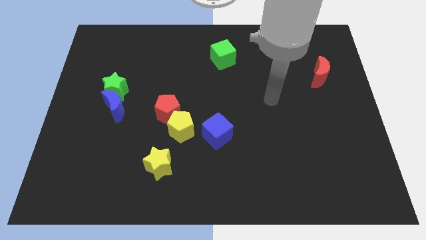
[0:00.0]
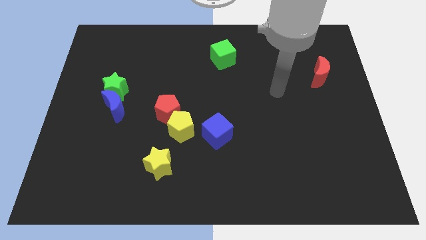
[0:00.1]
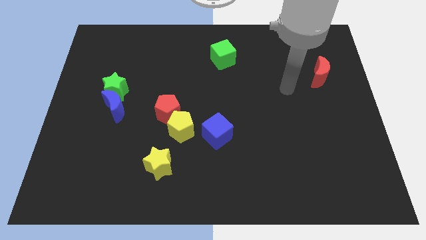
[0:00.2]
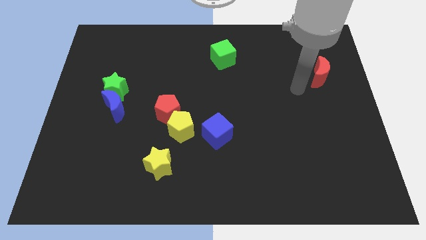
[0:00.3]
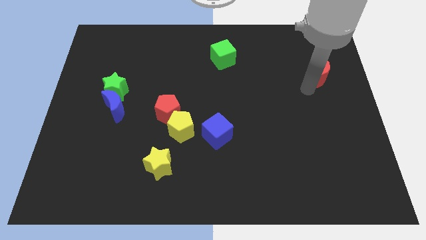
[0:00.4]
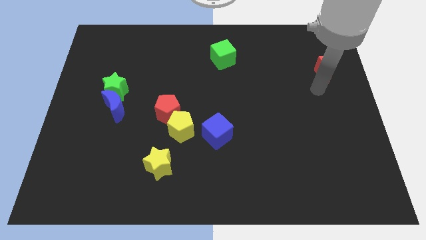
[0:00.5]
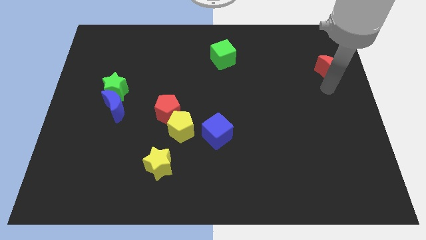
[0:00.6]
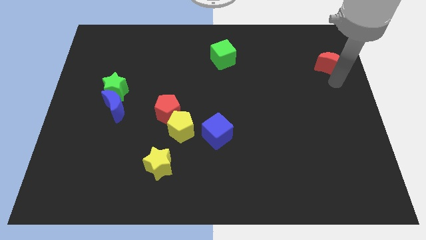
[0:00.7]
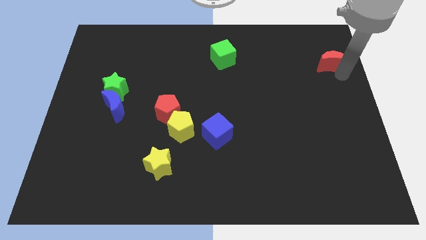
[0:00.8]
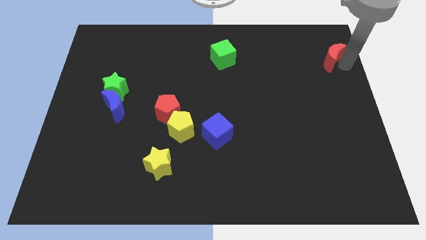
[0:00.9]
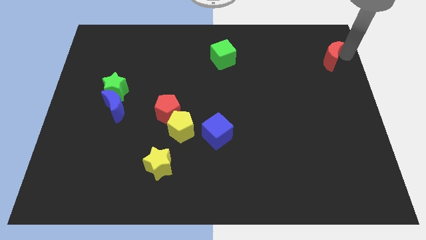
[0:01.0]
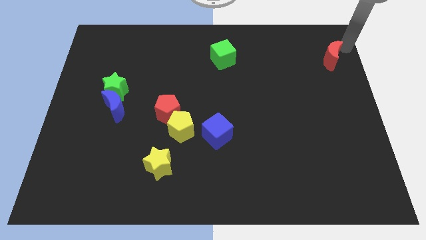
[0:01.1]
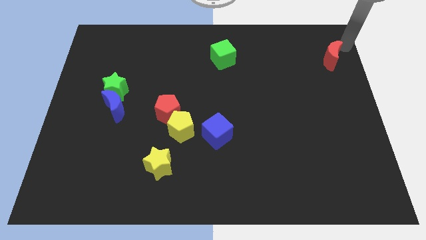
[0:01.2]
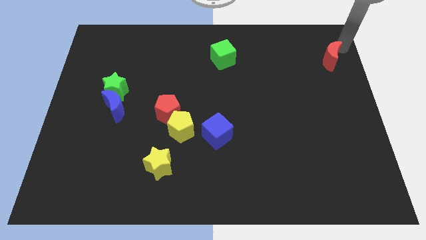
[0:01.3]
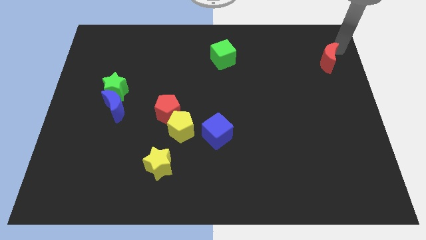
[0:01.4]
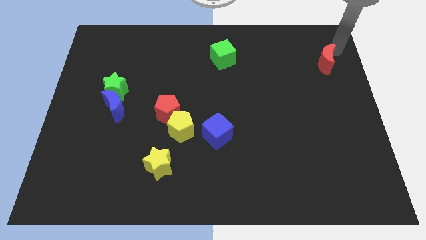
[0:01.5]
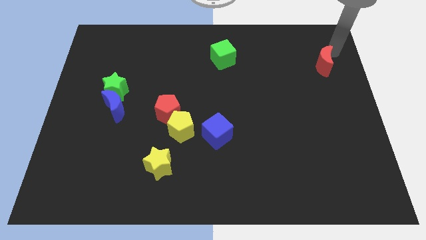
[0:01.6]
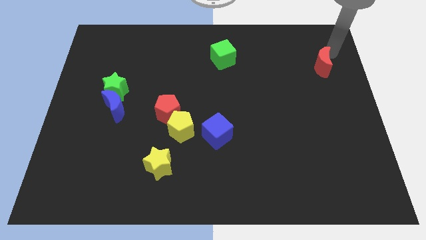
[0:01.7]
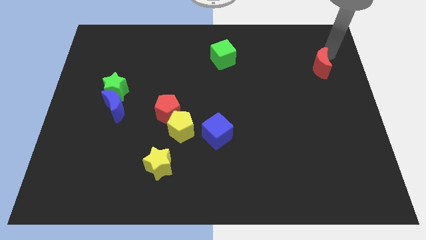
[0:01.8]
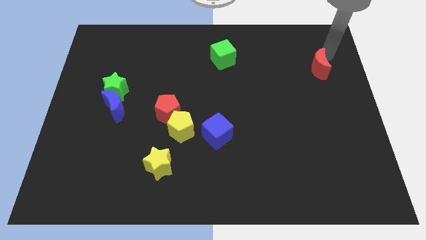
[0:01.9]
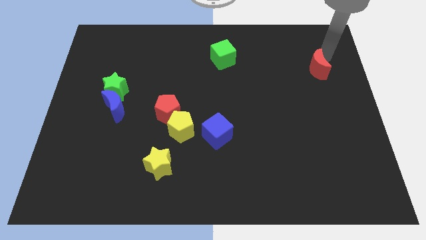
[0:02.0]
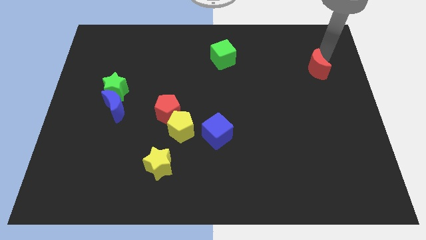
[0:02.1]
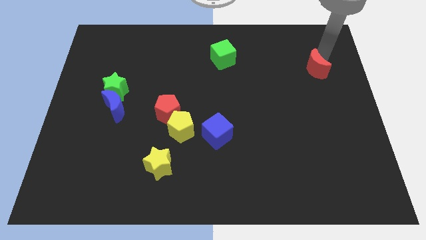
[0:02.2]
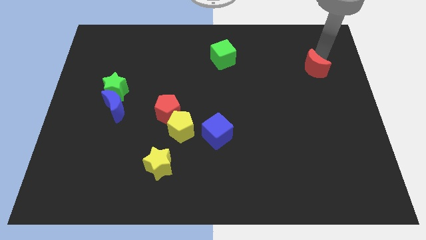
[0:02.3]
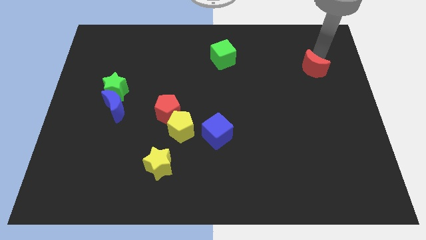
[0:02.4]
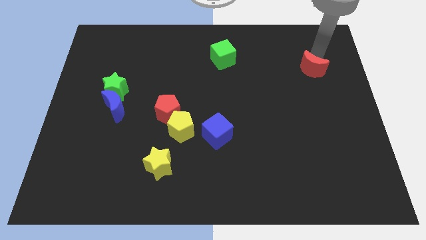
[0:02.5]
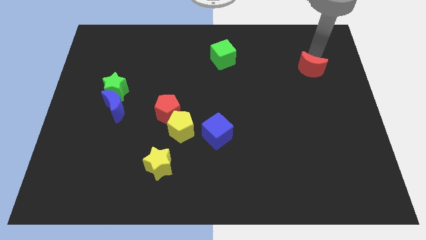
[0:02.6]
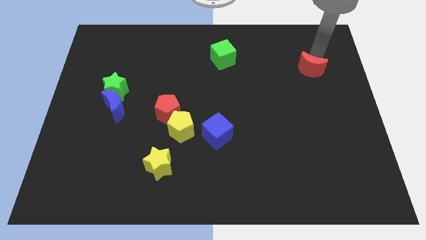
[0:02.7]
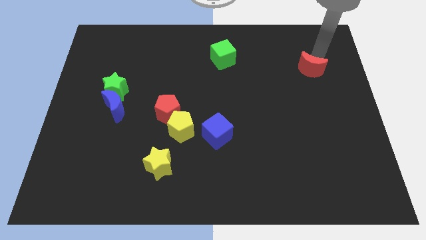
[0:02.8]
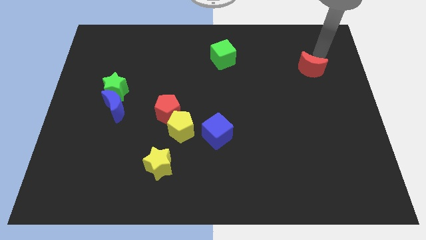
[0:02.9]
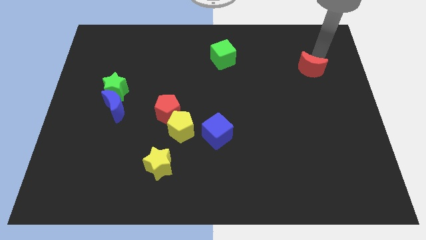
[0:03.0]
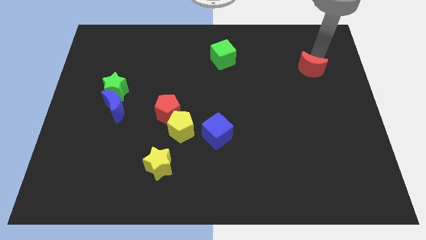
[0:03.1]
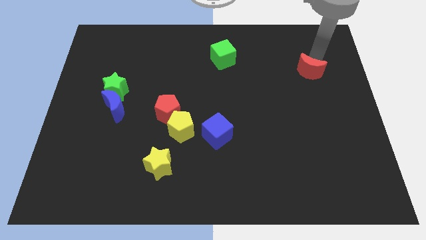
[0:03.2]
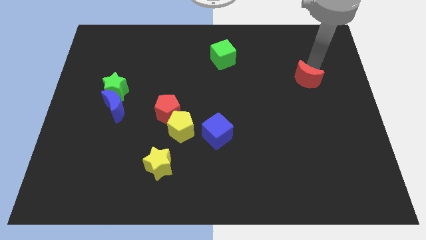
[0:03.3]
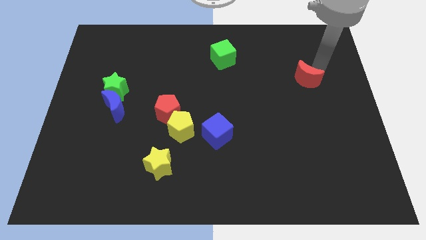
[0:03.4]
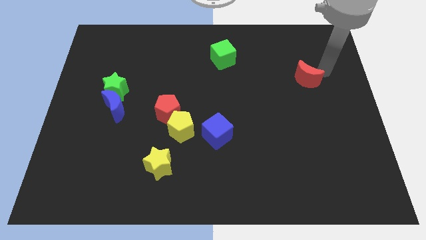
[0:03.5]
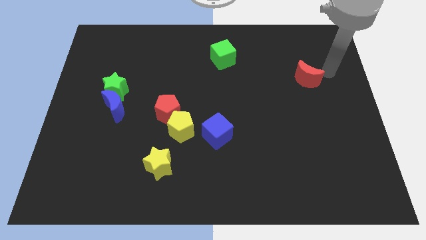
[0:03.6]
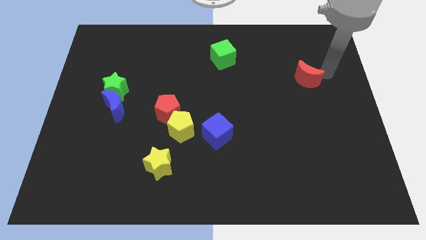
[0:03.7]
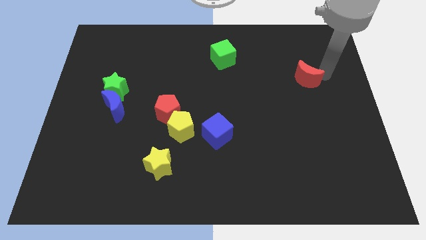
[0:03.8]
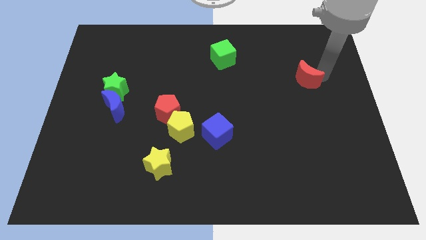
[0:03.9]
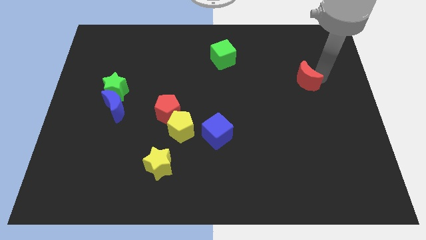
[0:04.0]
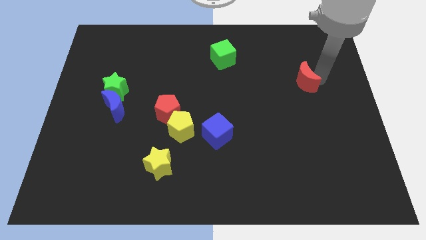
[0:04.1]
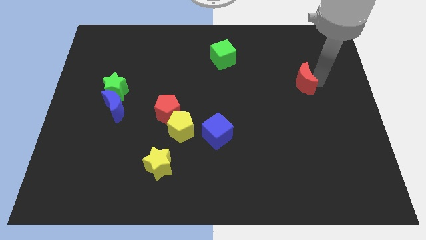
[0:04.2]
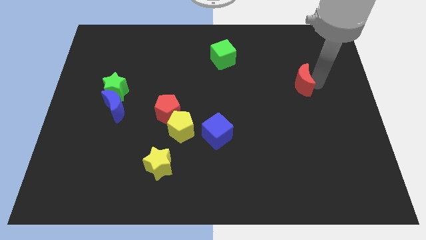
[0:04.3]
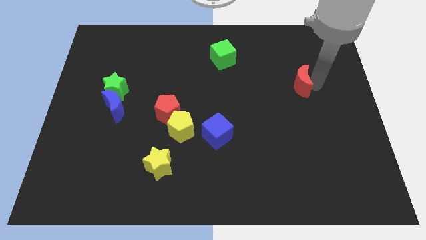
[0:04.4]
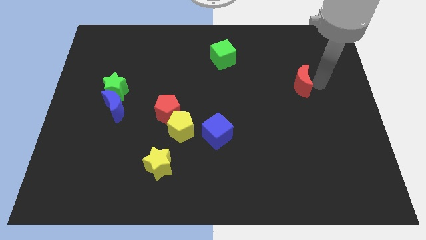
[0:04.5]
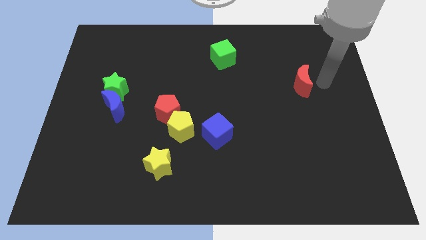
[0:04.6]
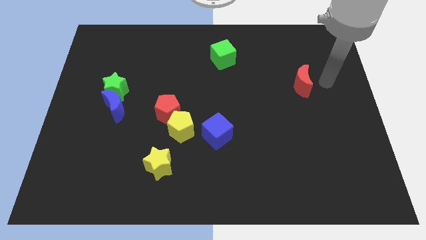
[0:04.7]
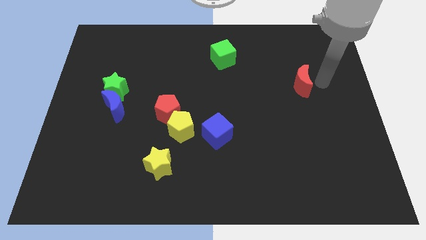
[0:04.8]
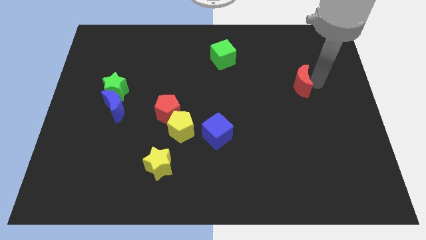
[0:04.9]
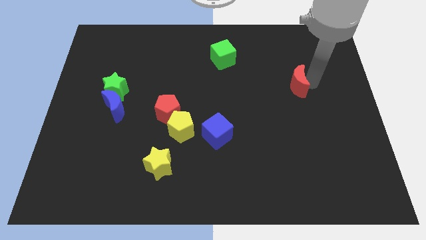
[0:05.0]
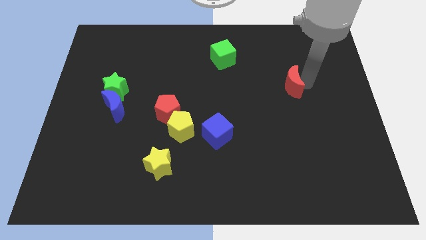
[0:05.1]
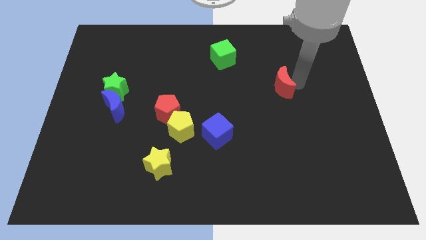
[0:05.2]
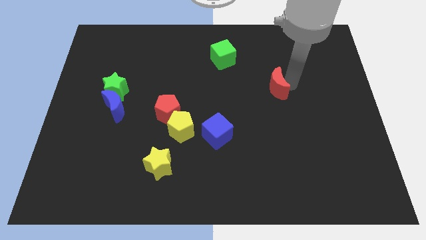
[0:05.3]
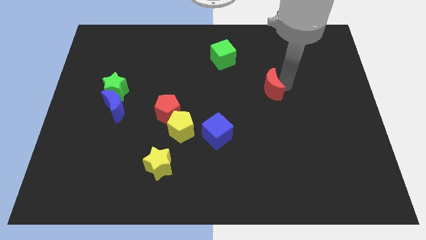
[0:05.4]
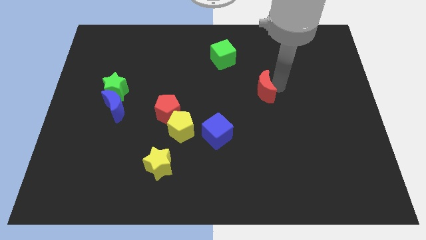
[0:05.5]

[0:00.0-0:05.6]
move the red moon to the middle of the board
